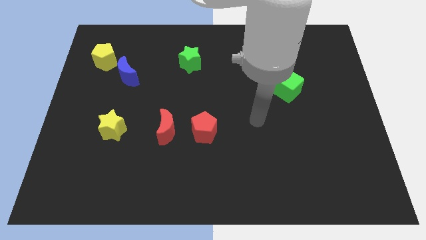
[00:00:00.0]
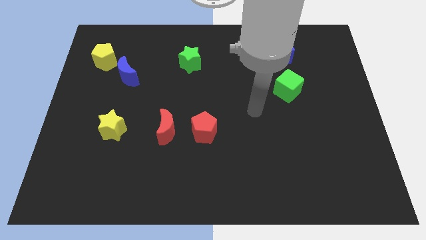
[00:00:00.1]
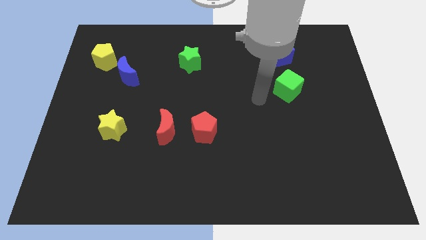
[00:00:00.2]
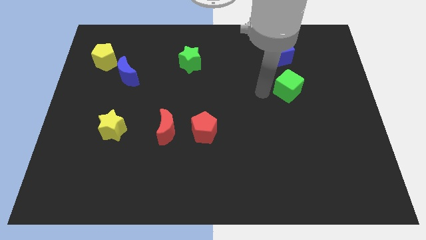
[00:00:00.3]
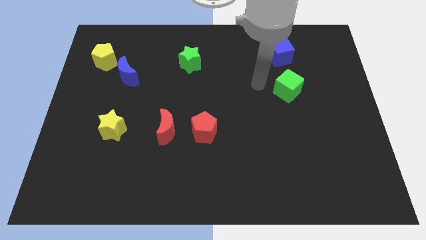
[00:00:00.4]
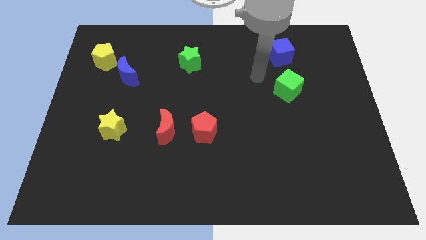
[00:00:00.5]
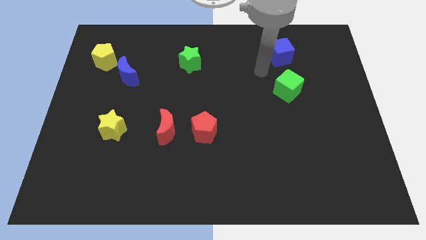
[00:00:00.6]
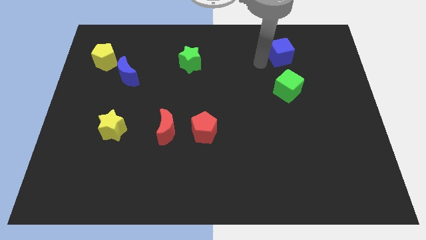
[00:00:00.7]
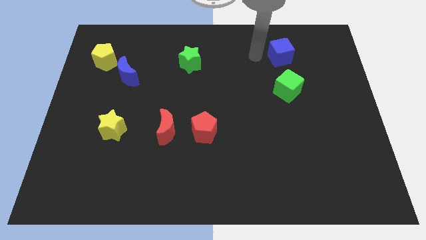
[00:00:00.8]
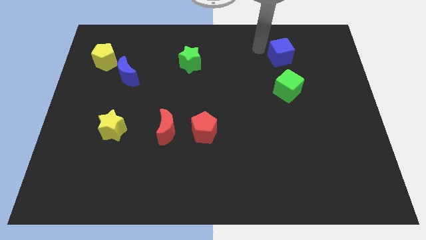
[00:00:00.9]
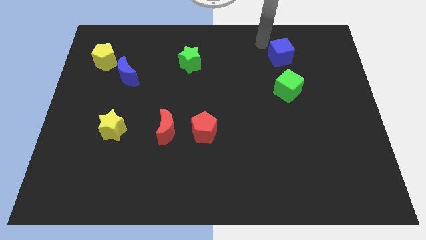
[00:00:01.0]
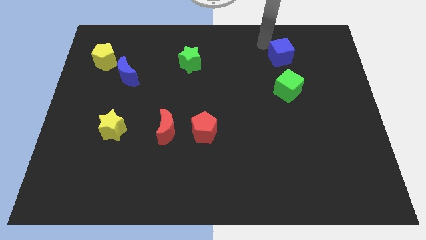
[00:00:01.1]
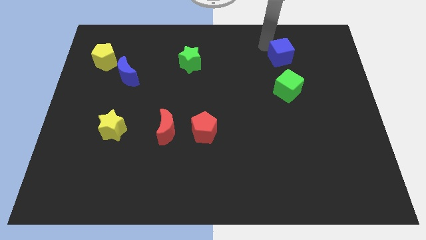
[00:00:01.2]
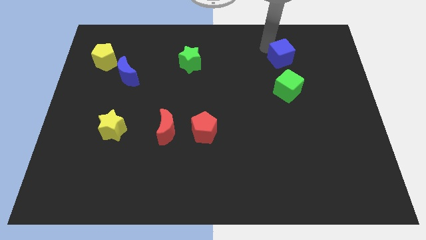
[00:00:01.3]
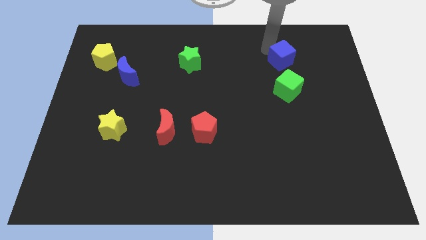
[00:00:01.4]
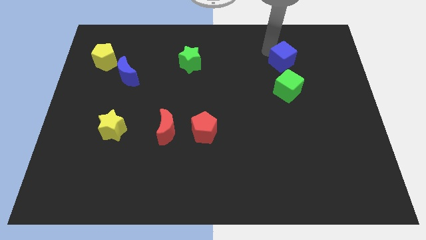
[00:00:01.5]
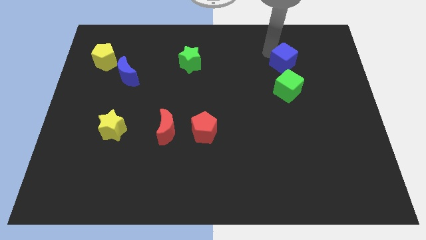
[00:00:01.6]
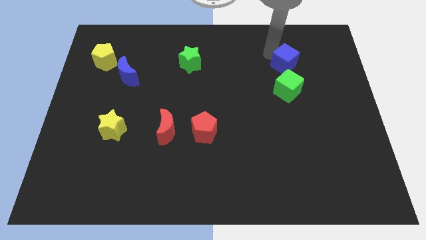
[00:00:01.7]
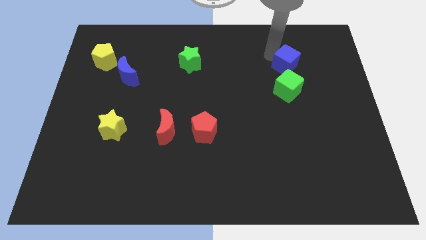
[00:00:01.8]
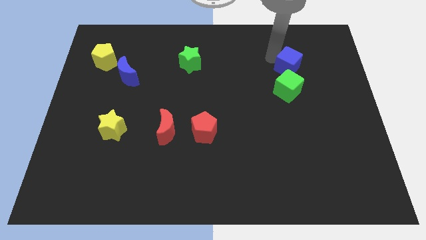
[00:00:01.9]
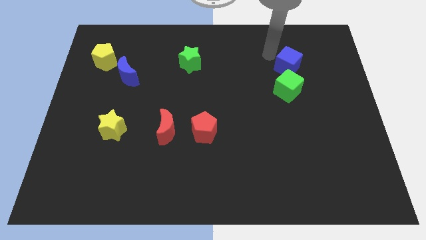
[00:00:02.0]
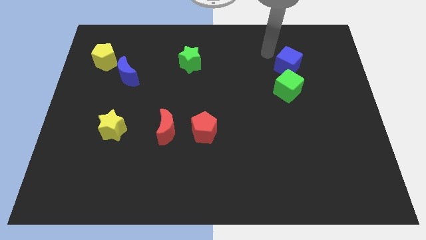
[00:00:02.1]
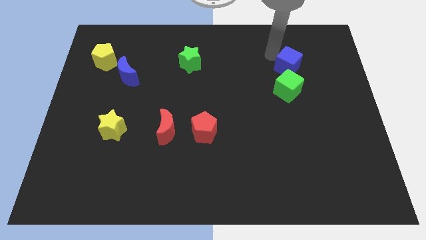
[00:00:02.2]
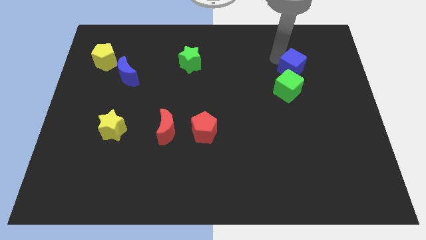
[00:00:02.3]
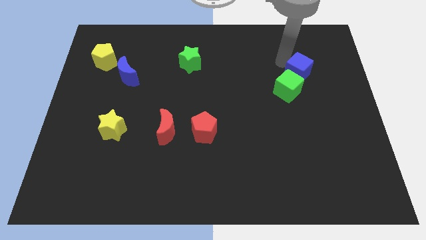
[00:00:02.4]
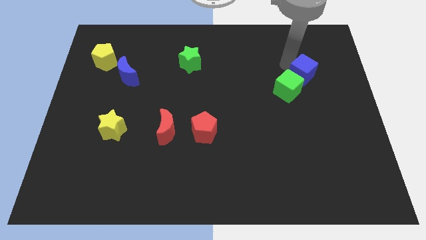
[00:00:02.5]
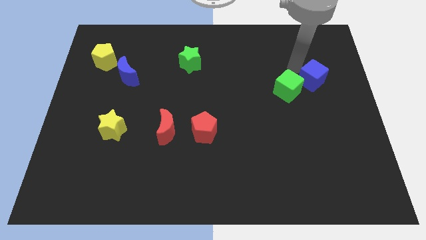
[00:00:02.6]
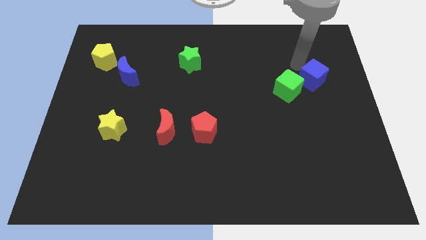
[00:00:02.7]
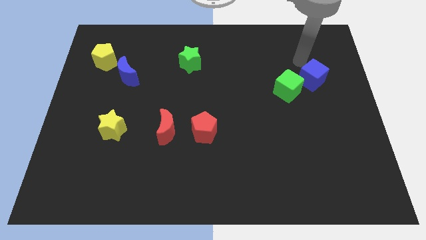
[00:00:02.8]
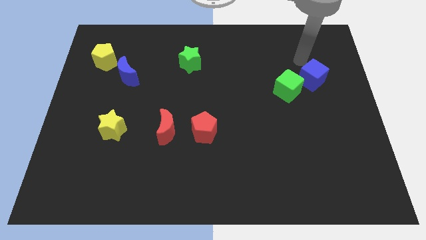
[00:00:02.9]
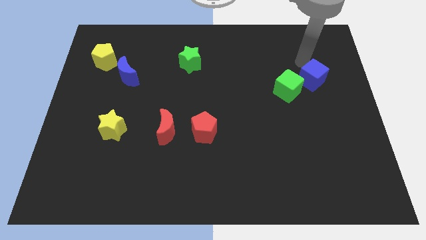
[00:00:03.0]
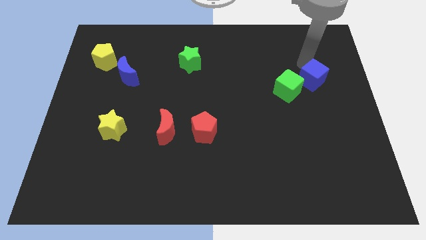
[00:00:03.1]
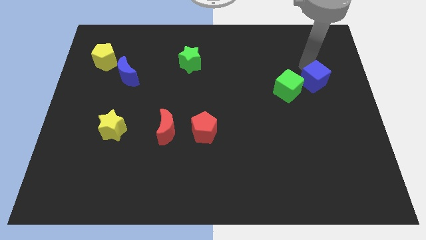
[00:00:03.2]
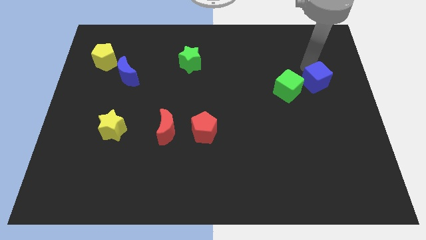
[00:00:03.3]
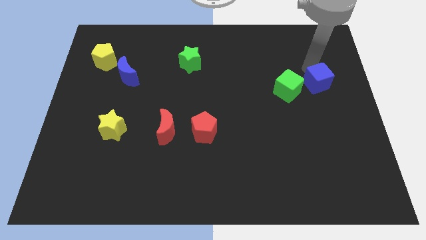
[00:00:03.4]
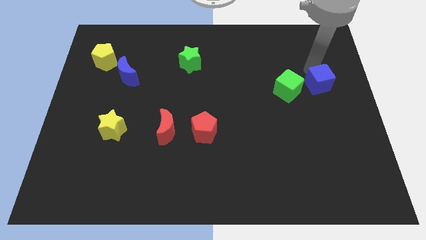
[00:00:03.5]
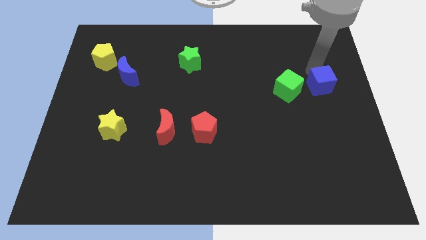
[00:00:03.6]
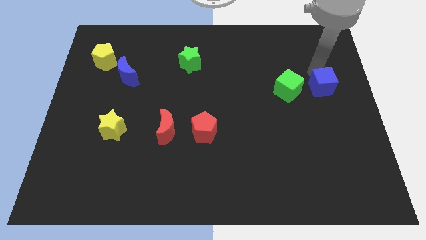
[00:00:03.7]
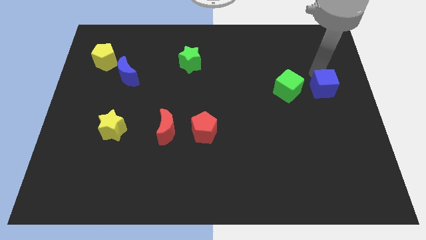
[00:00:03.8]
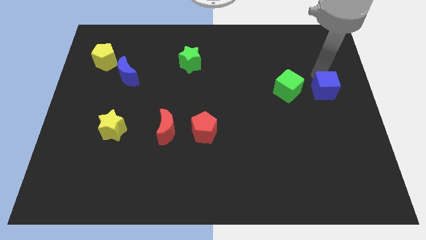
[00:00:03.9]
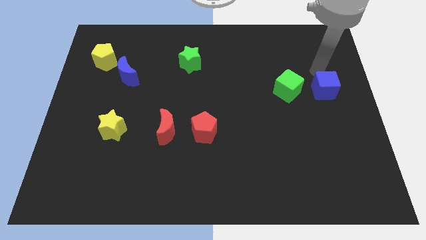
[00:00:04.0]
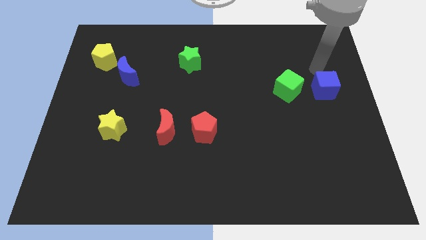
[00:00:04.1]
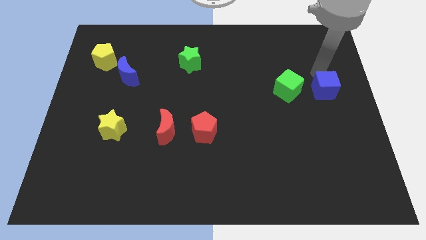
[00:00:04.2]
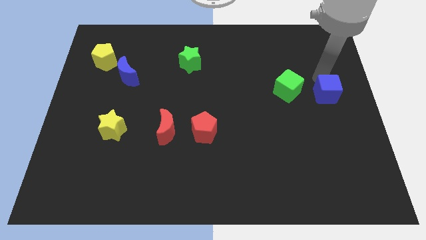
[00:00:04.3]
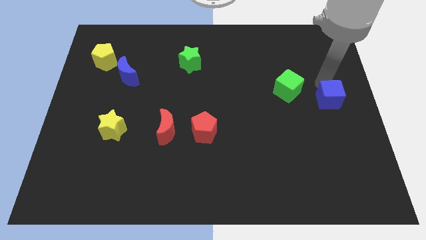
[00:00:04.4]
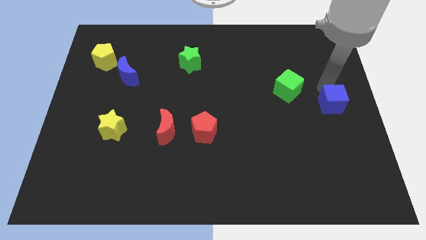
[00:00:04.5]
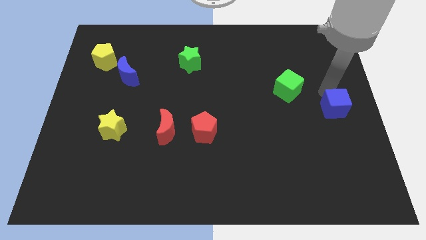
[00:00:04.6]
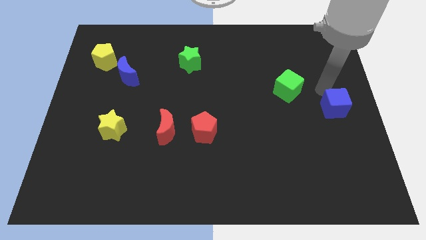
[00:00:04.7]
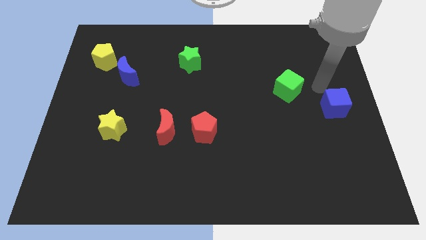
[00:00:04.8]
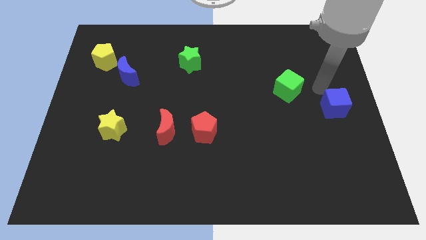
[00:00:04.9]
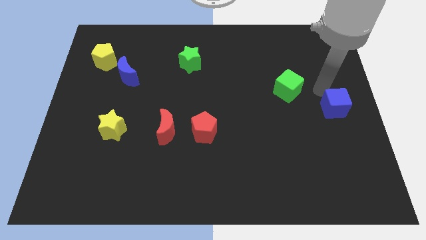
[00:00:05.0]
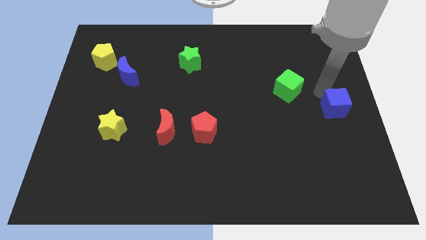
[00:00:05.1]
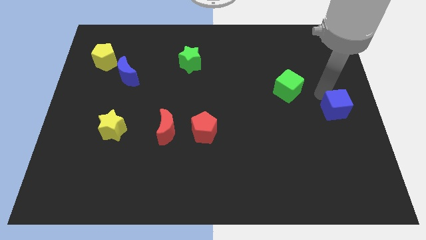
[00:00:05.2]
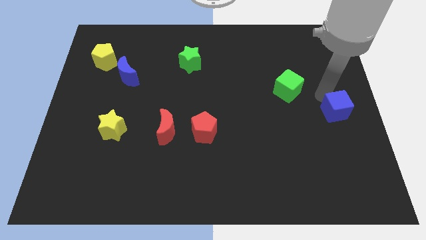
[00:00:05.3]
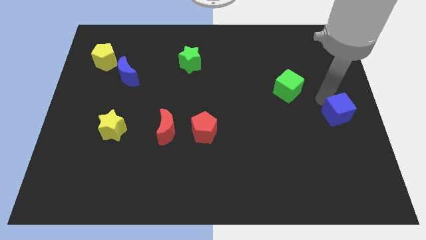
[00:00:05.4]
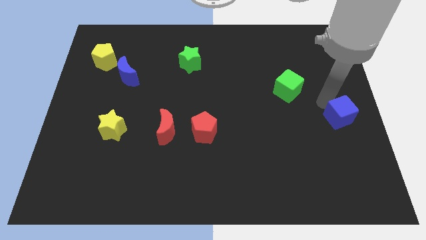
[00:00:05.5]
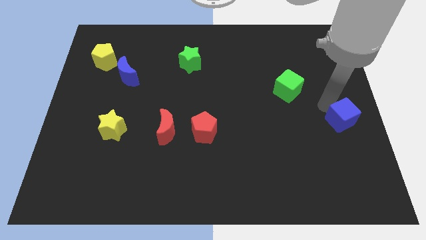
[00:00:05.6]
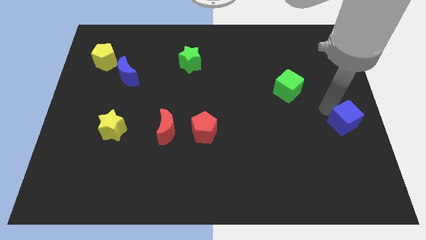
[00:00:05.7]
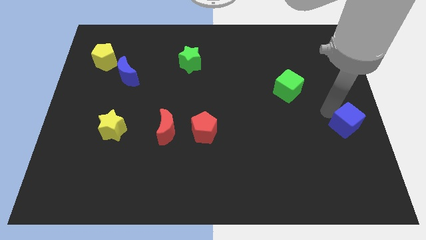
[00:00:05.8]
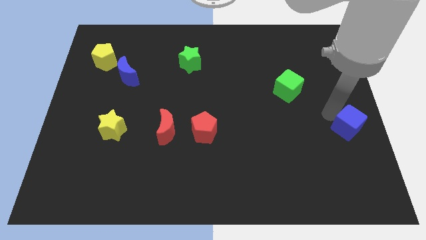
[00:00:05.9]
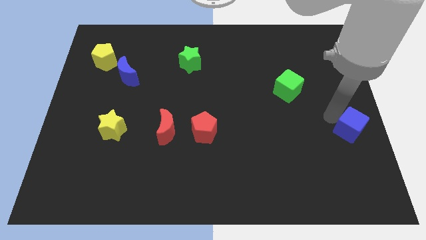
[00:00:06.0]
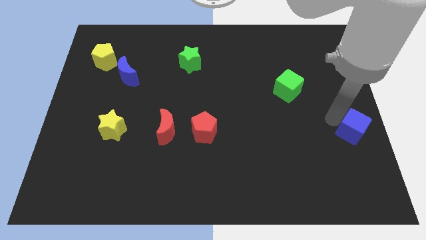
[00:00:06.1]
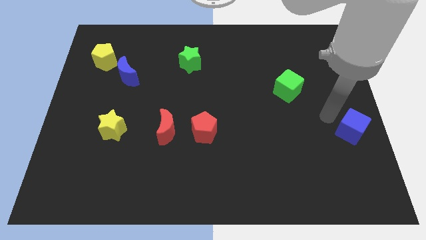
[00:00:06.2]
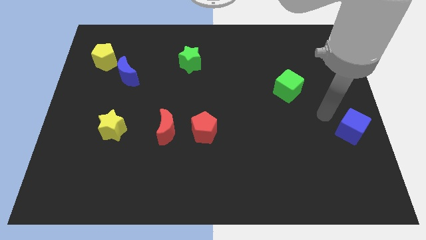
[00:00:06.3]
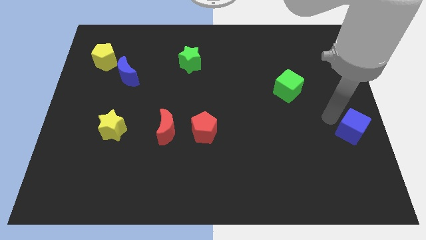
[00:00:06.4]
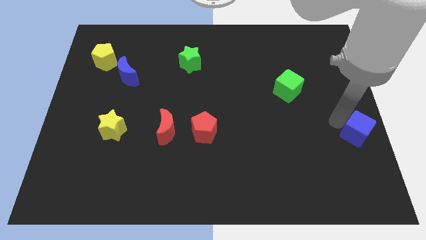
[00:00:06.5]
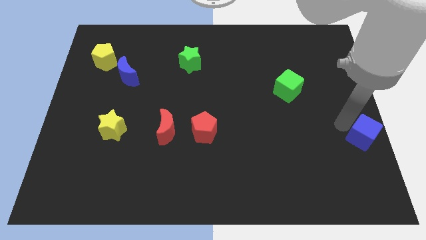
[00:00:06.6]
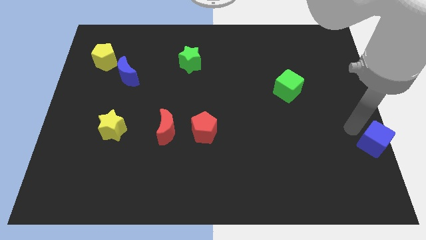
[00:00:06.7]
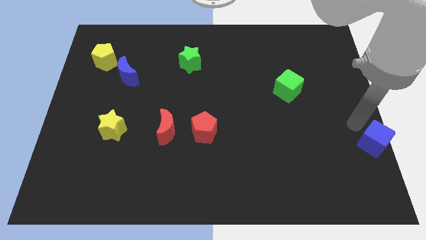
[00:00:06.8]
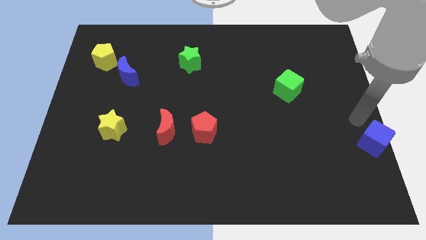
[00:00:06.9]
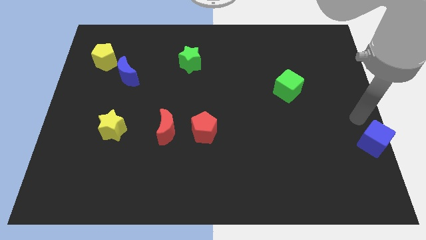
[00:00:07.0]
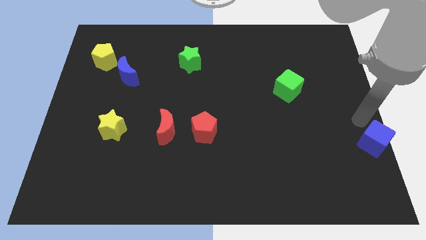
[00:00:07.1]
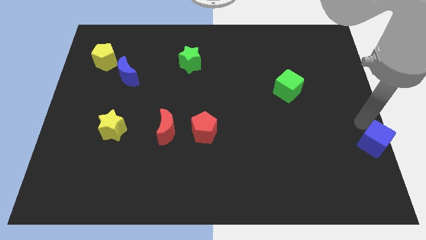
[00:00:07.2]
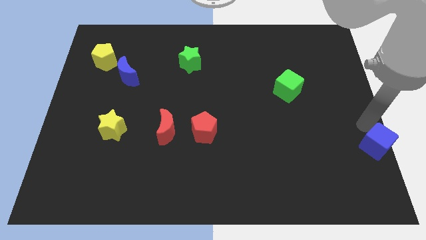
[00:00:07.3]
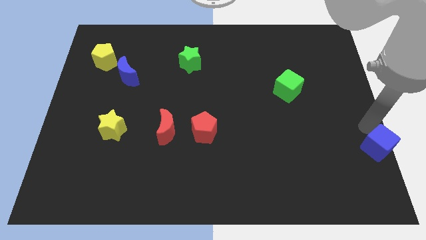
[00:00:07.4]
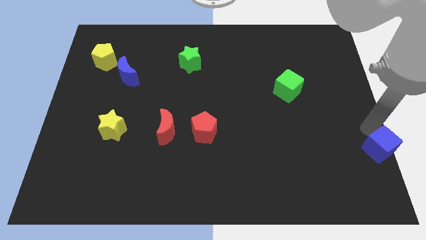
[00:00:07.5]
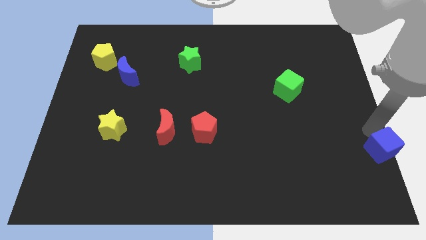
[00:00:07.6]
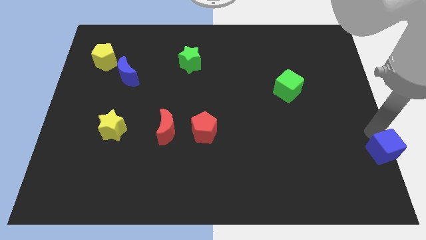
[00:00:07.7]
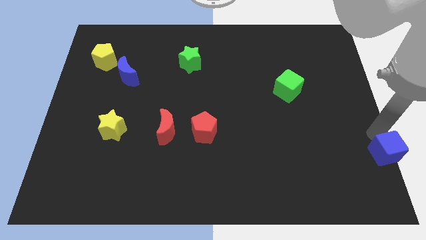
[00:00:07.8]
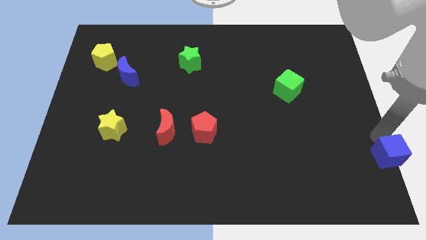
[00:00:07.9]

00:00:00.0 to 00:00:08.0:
put the blue cube to the bottom right of the board
